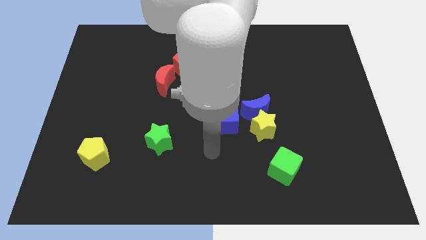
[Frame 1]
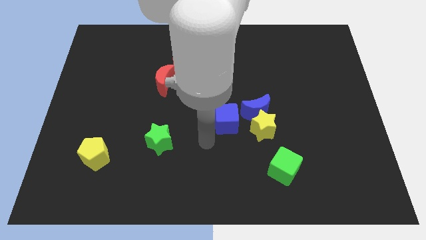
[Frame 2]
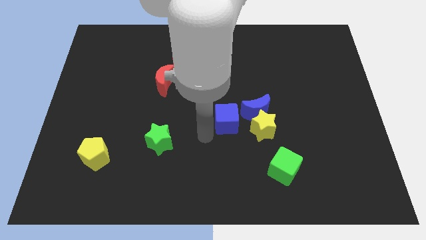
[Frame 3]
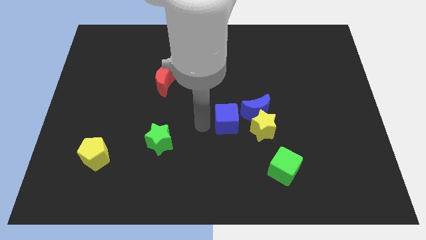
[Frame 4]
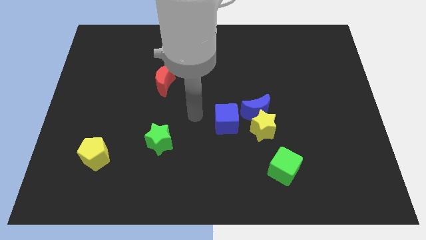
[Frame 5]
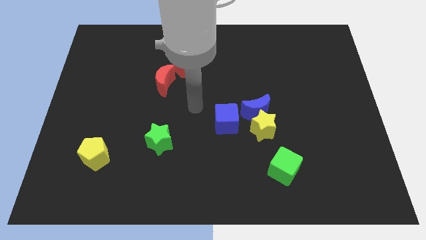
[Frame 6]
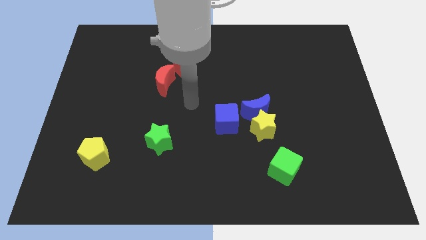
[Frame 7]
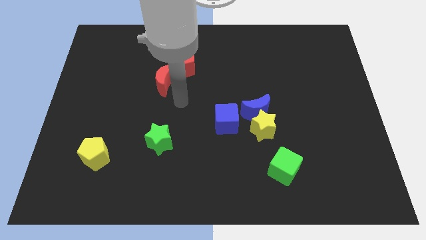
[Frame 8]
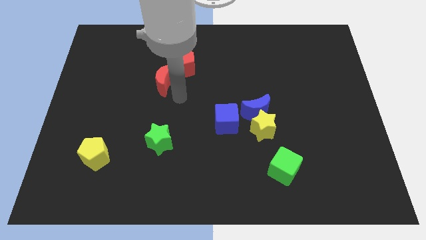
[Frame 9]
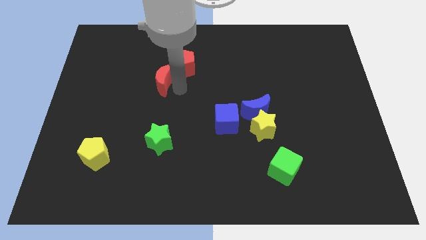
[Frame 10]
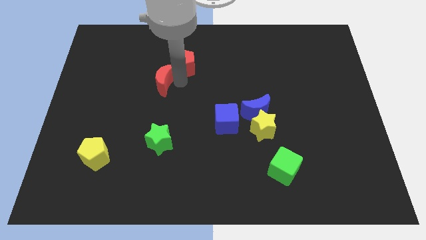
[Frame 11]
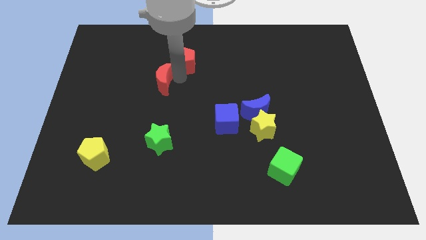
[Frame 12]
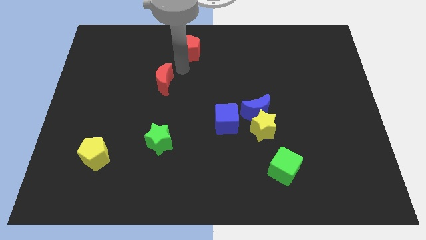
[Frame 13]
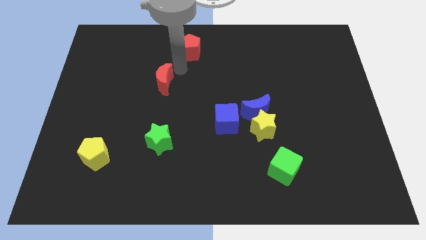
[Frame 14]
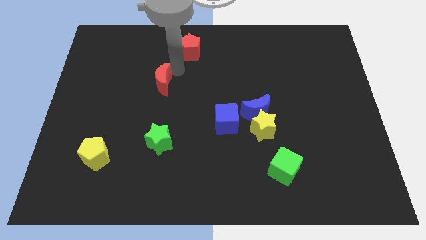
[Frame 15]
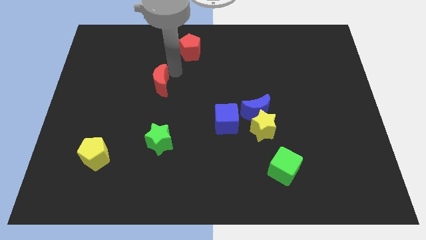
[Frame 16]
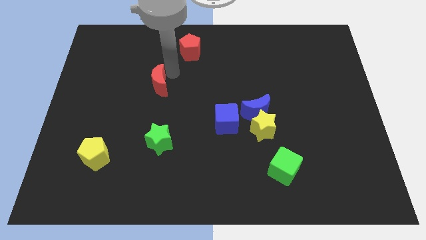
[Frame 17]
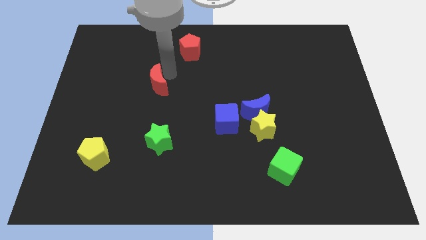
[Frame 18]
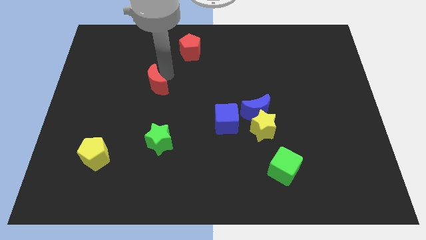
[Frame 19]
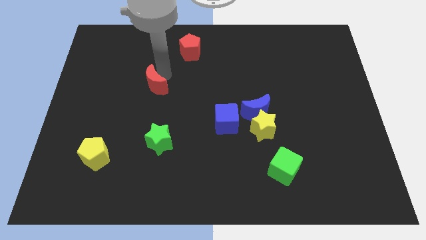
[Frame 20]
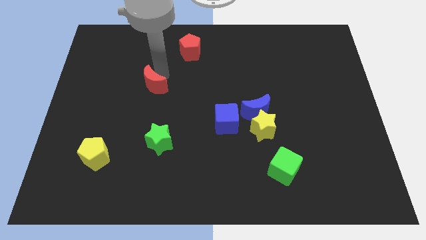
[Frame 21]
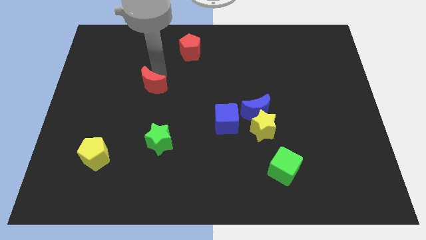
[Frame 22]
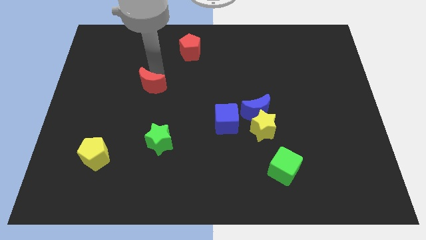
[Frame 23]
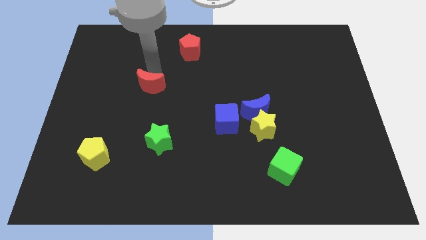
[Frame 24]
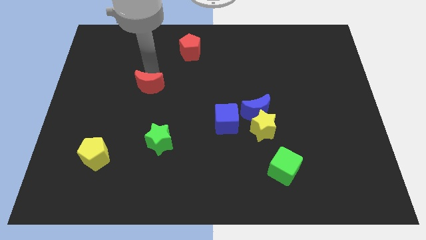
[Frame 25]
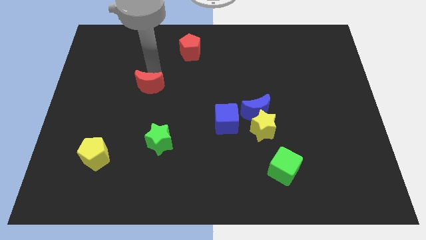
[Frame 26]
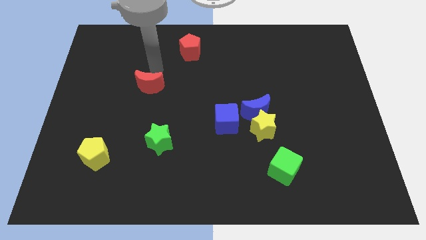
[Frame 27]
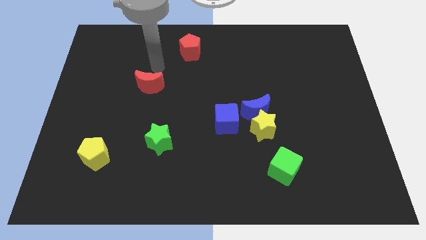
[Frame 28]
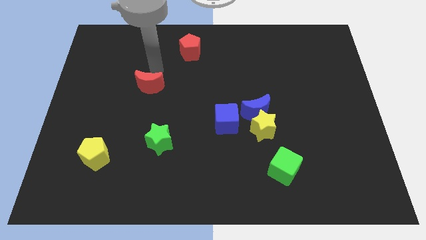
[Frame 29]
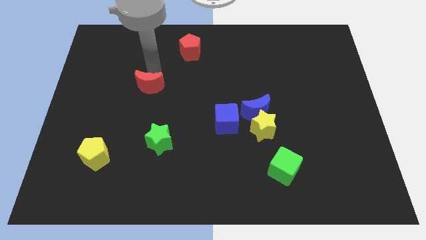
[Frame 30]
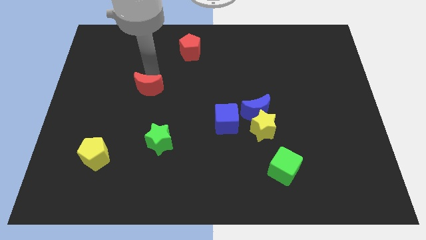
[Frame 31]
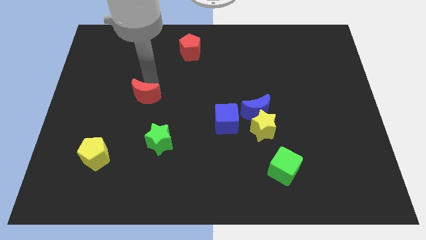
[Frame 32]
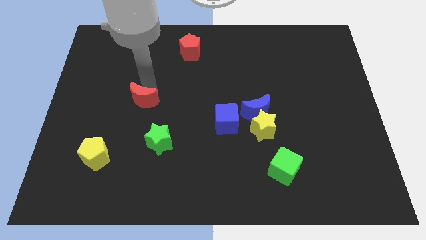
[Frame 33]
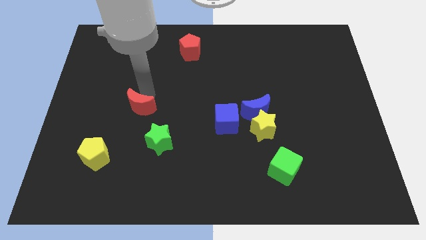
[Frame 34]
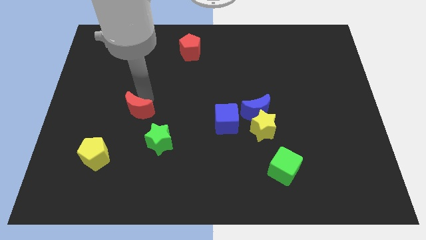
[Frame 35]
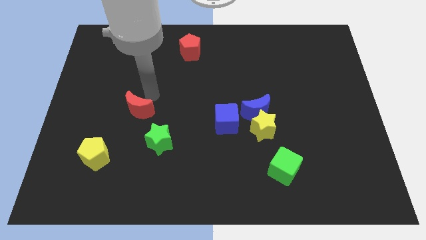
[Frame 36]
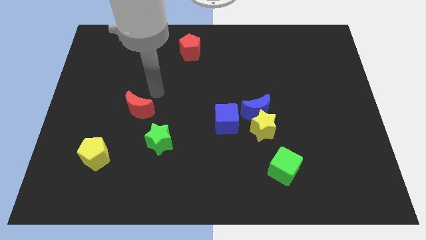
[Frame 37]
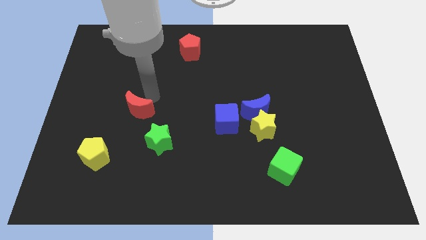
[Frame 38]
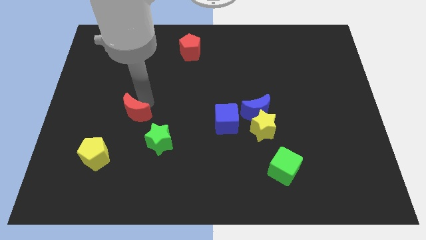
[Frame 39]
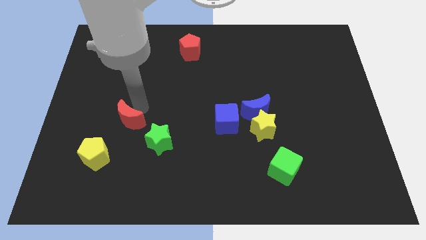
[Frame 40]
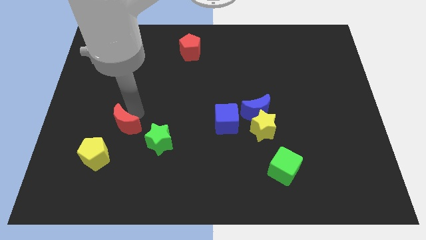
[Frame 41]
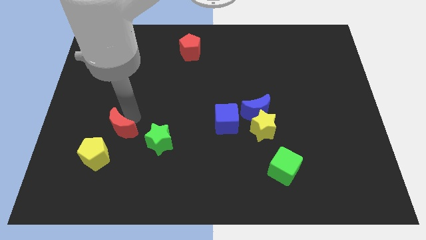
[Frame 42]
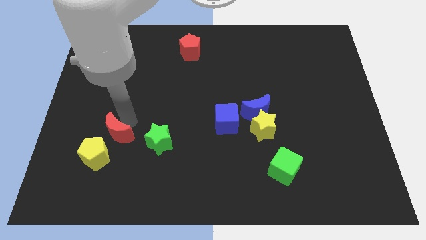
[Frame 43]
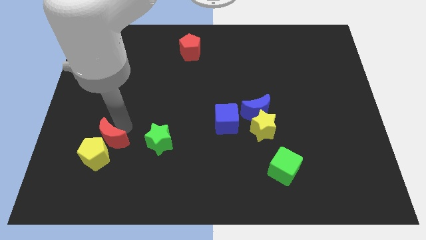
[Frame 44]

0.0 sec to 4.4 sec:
move the red moon towards the yellow pentagon

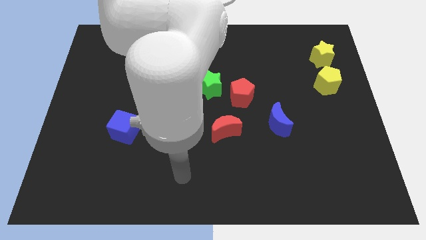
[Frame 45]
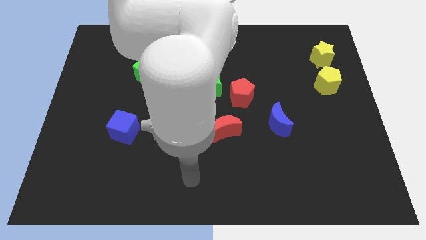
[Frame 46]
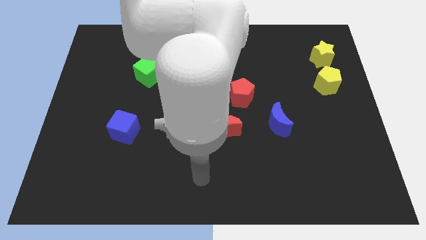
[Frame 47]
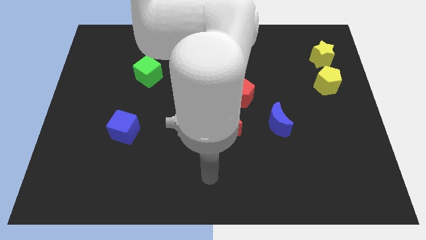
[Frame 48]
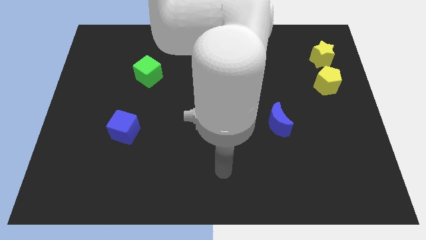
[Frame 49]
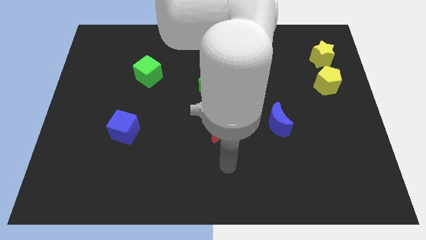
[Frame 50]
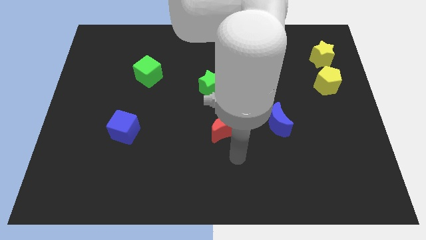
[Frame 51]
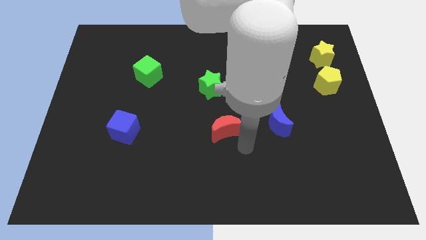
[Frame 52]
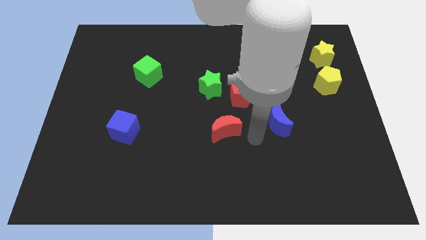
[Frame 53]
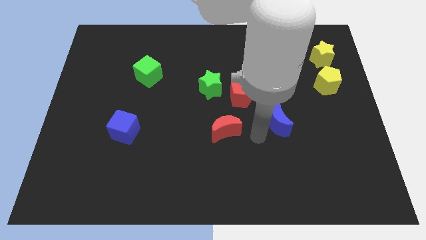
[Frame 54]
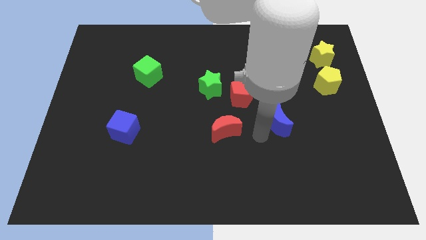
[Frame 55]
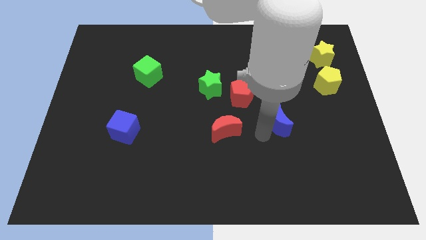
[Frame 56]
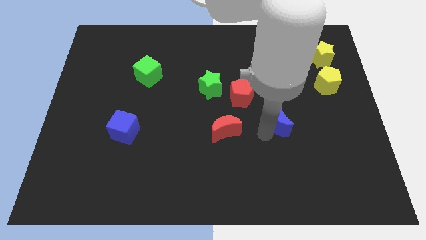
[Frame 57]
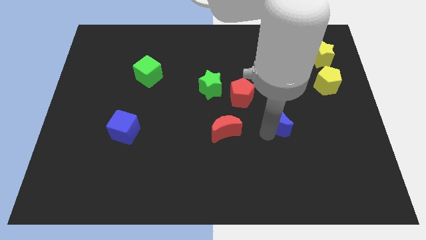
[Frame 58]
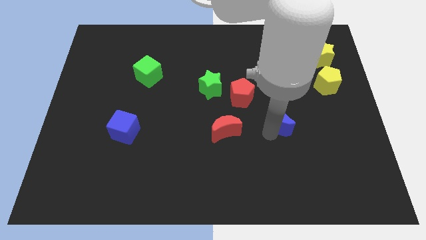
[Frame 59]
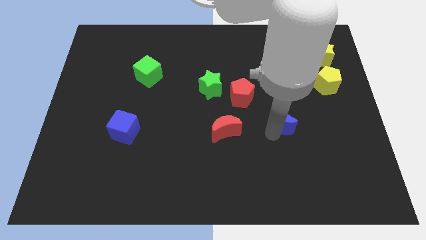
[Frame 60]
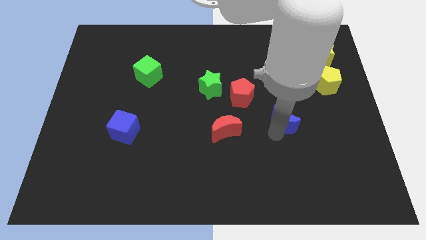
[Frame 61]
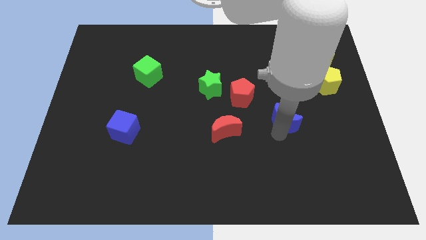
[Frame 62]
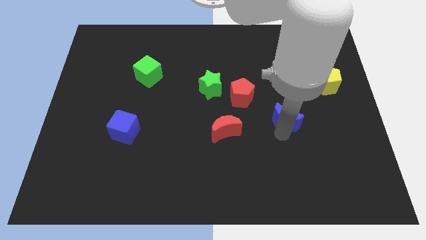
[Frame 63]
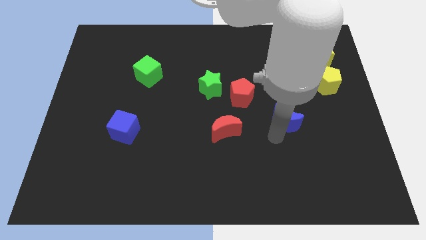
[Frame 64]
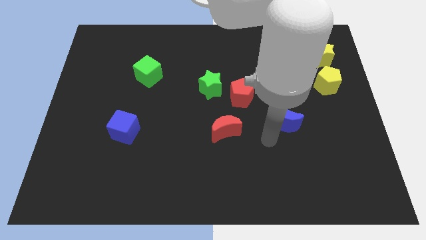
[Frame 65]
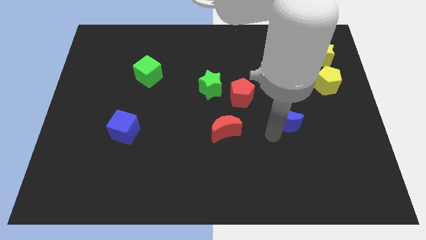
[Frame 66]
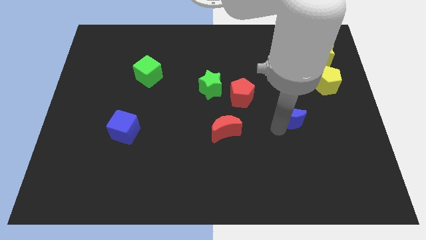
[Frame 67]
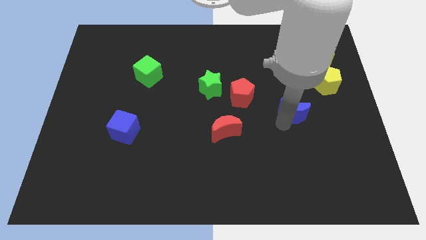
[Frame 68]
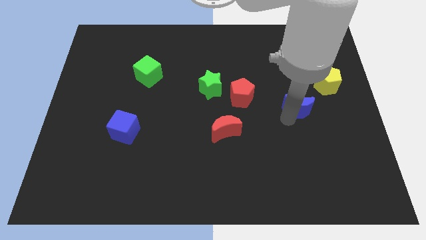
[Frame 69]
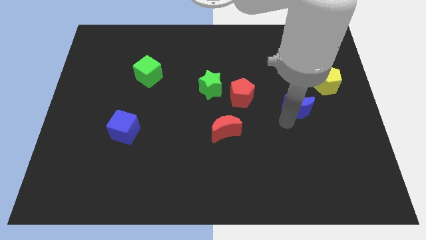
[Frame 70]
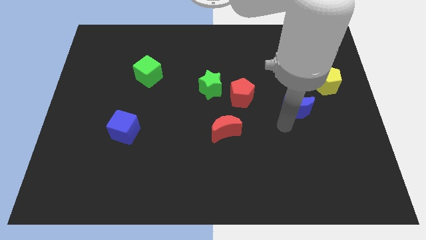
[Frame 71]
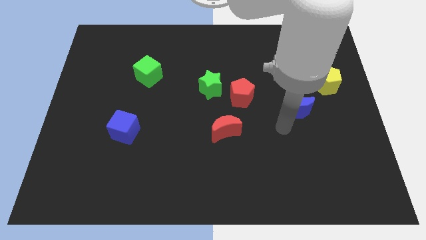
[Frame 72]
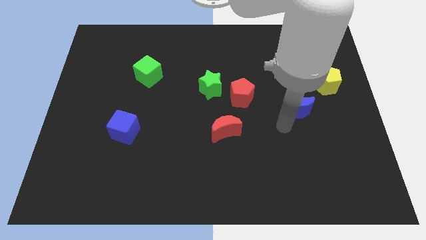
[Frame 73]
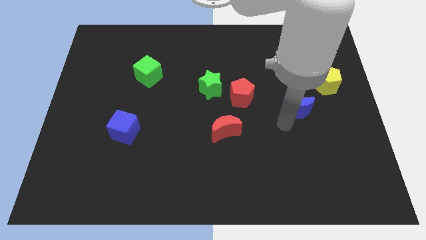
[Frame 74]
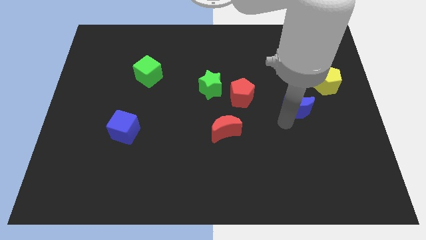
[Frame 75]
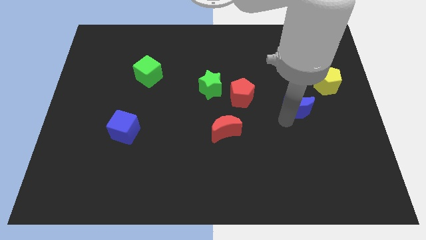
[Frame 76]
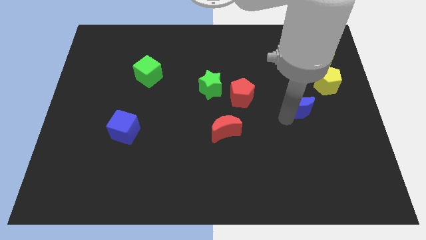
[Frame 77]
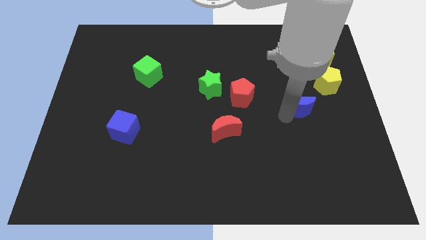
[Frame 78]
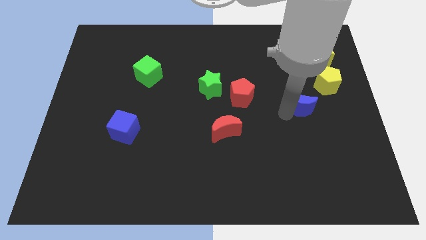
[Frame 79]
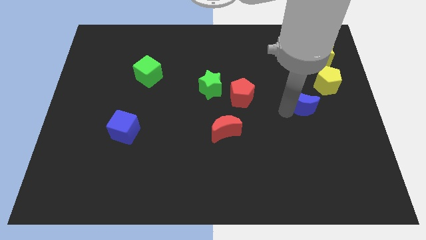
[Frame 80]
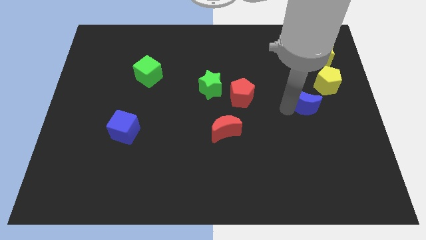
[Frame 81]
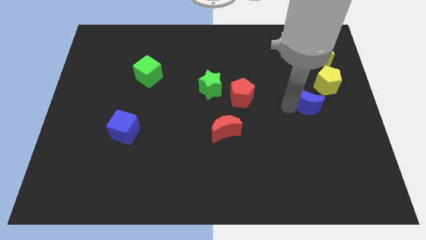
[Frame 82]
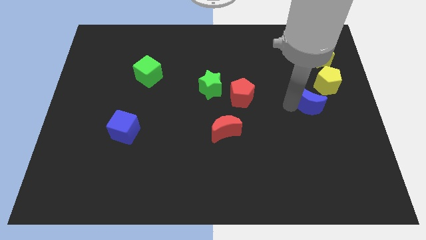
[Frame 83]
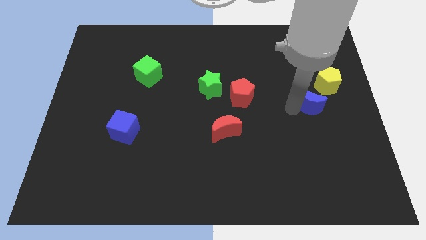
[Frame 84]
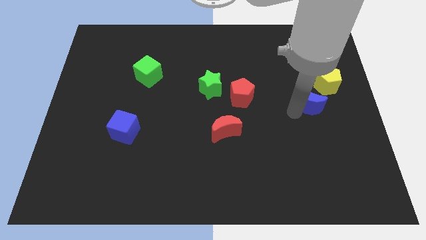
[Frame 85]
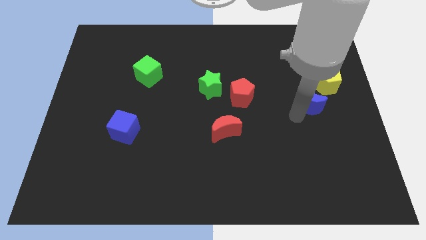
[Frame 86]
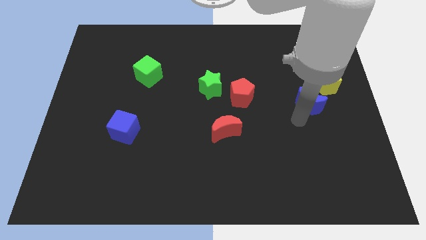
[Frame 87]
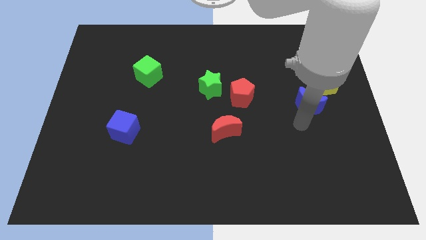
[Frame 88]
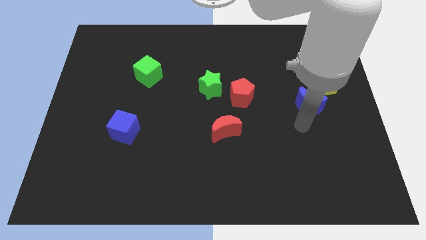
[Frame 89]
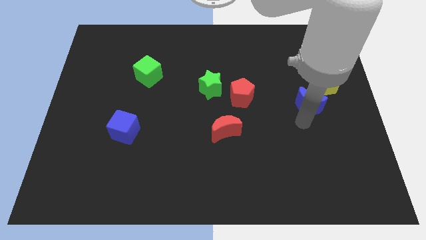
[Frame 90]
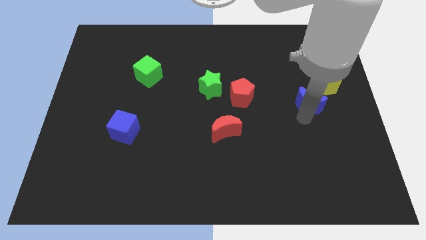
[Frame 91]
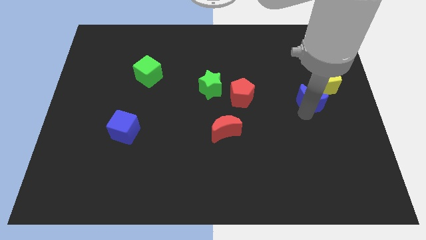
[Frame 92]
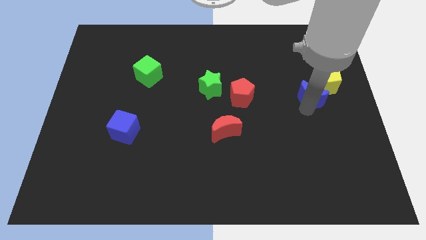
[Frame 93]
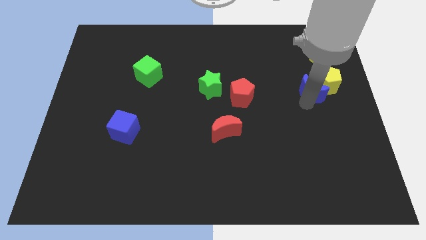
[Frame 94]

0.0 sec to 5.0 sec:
put the blue moon next to the yellow pentagon
